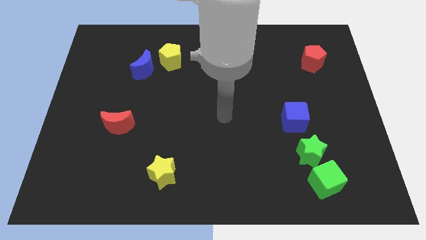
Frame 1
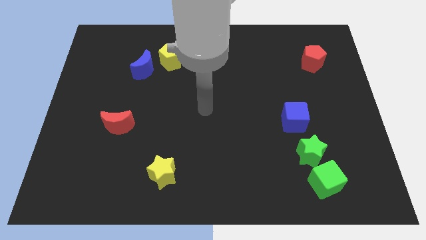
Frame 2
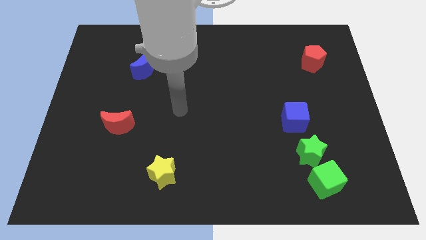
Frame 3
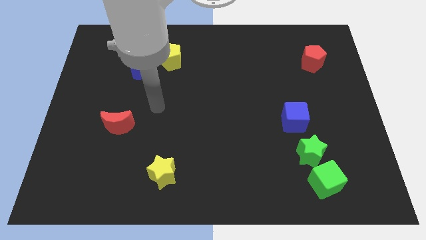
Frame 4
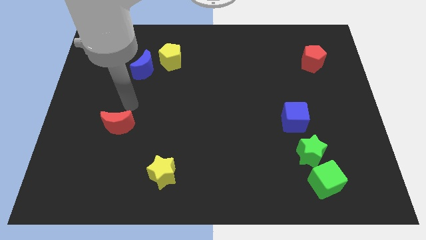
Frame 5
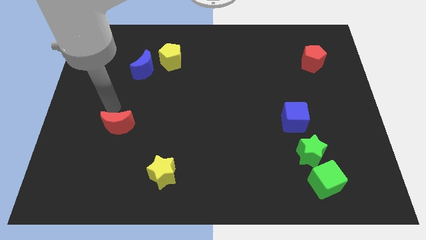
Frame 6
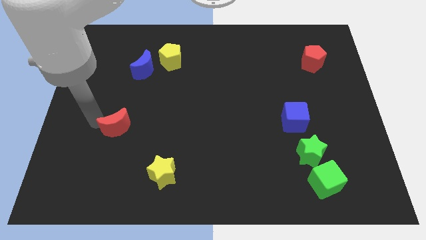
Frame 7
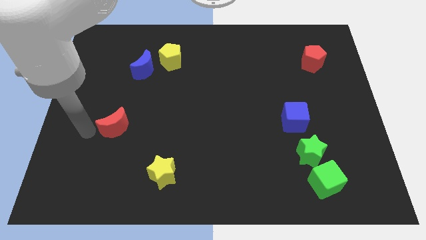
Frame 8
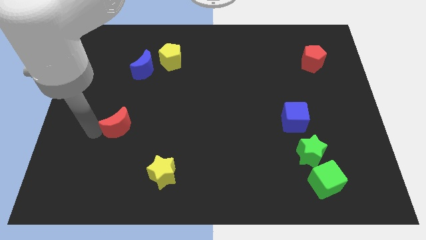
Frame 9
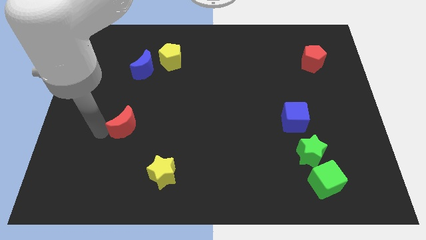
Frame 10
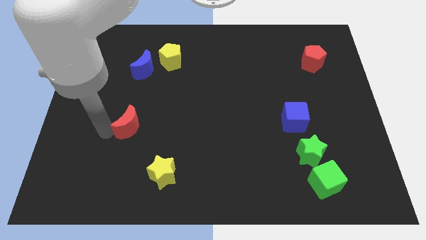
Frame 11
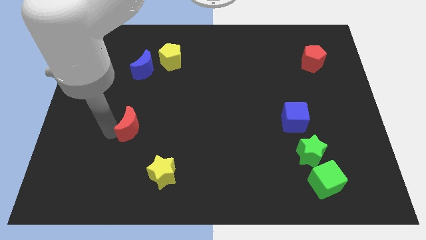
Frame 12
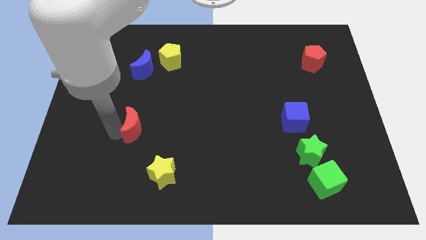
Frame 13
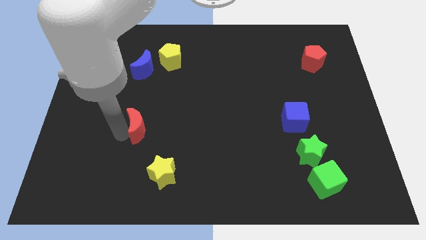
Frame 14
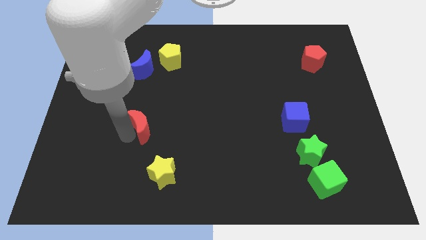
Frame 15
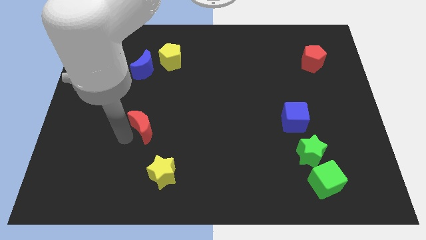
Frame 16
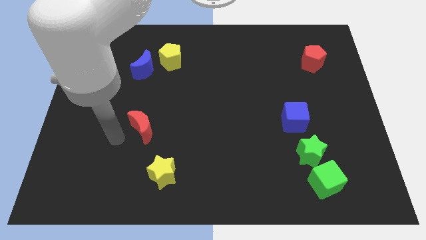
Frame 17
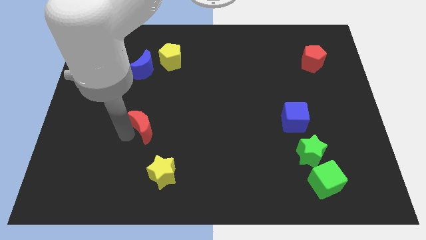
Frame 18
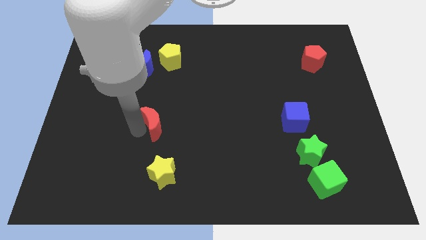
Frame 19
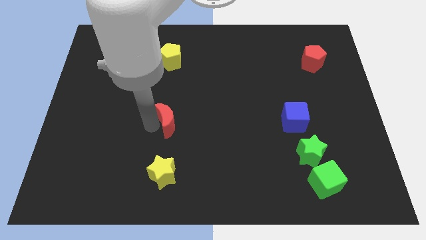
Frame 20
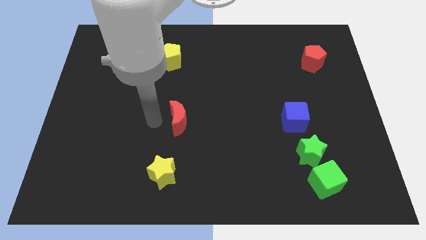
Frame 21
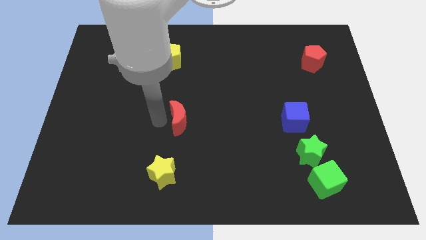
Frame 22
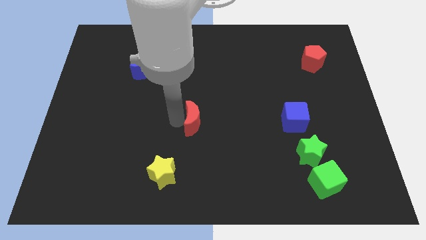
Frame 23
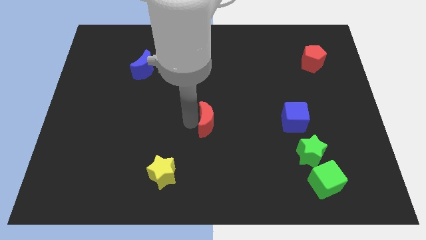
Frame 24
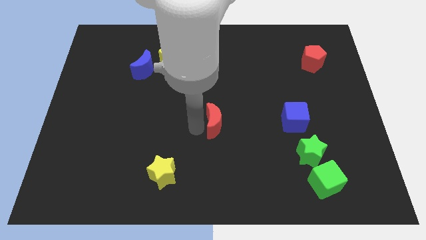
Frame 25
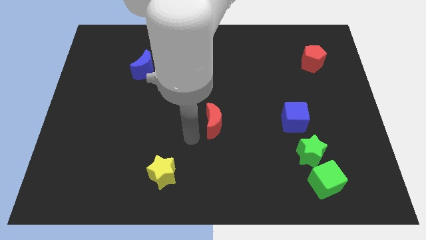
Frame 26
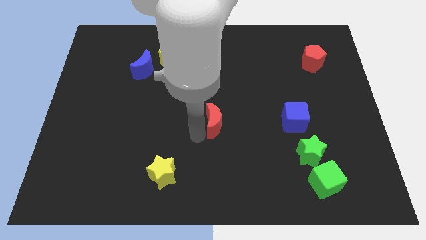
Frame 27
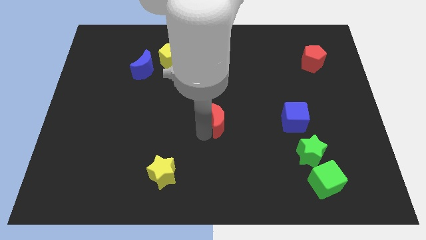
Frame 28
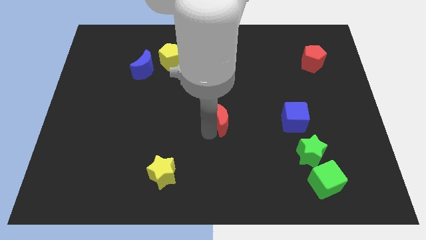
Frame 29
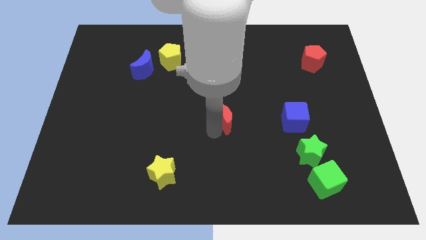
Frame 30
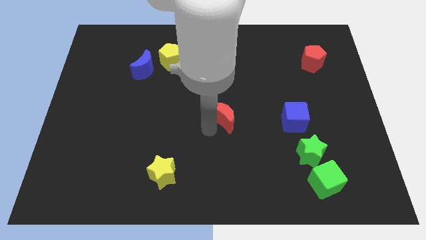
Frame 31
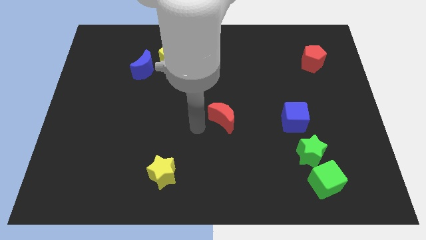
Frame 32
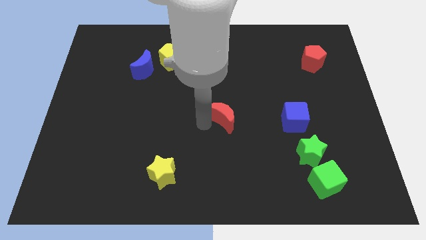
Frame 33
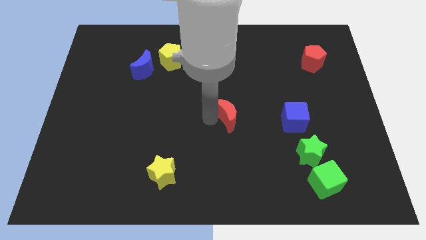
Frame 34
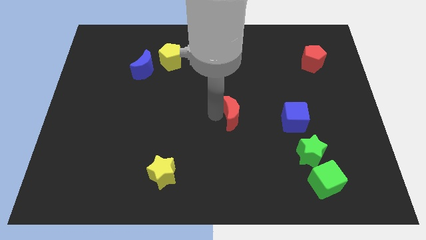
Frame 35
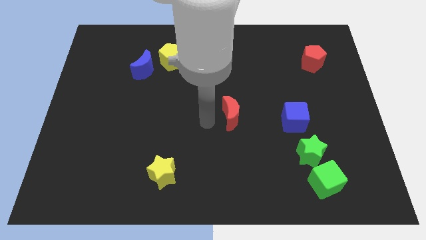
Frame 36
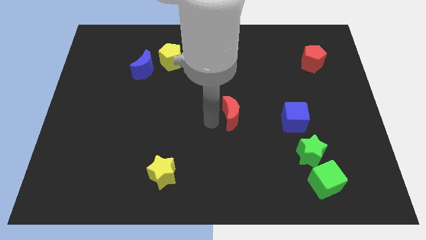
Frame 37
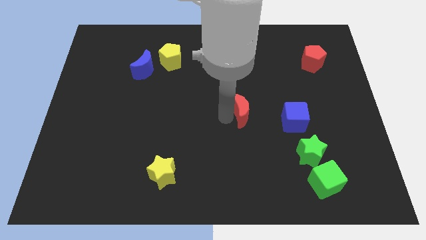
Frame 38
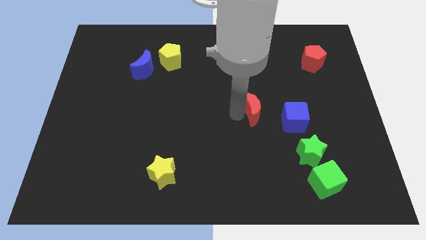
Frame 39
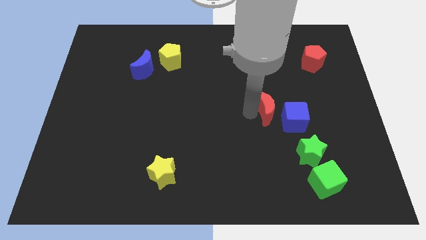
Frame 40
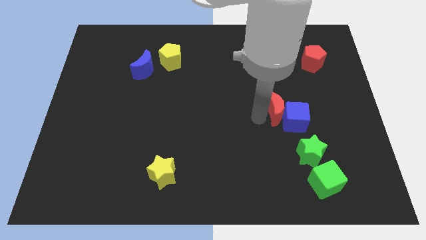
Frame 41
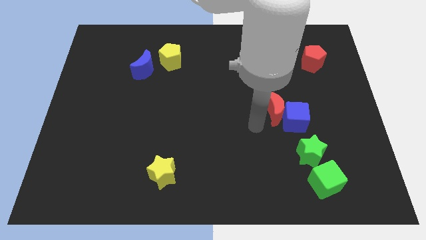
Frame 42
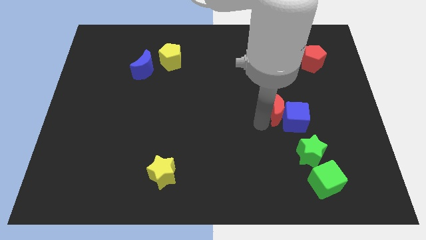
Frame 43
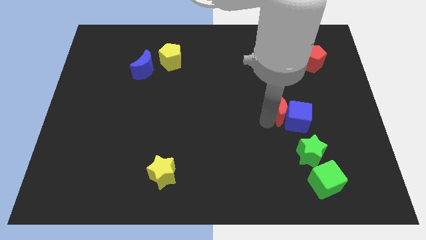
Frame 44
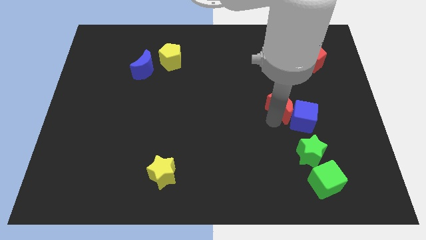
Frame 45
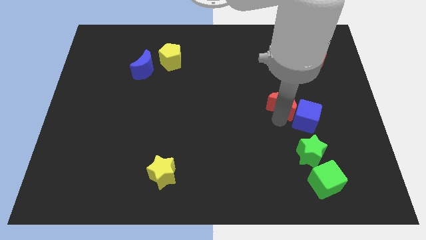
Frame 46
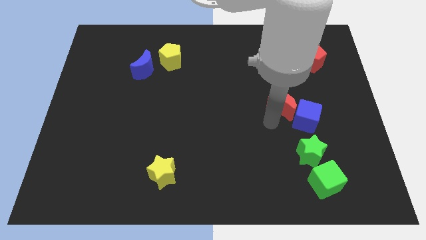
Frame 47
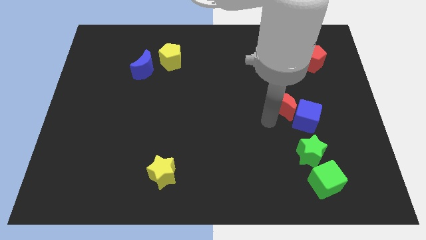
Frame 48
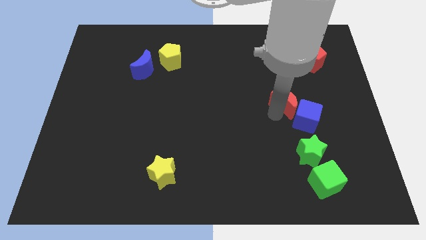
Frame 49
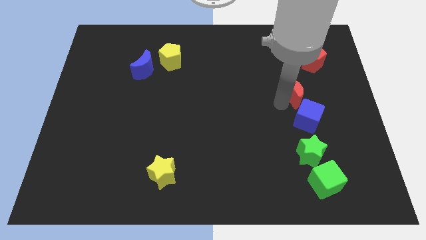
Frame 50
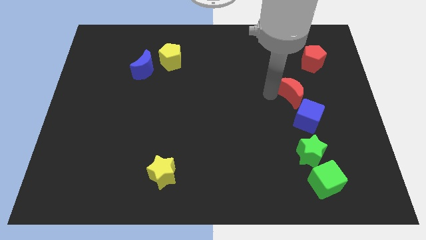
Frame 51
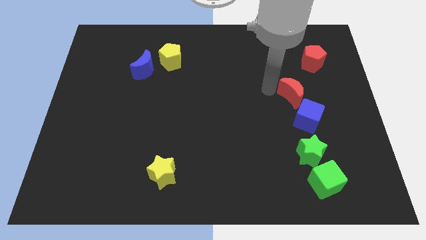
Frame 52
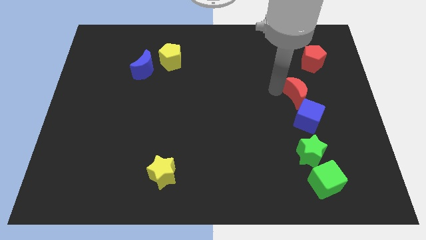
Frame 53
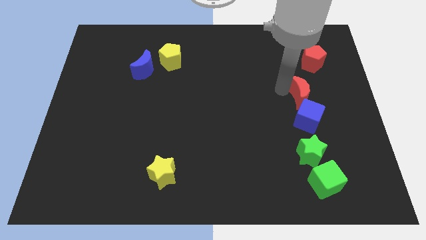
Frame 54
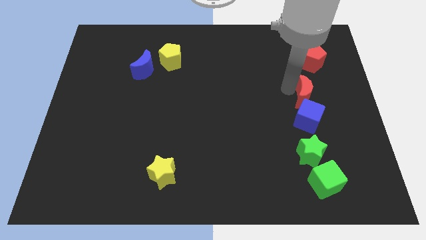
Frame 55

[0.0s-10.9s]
slide the red moon to the top right side of the blue cube
